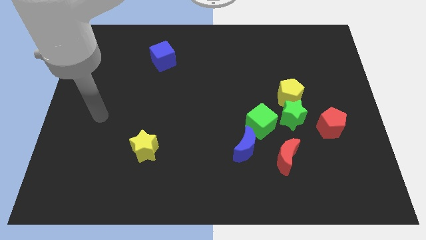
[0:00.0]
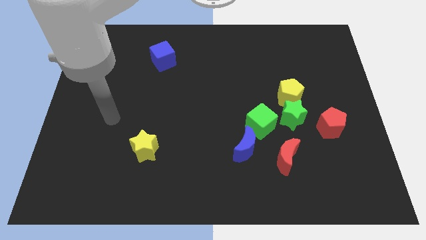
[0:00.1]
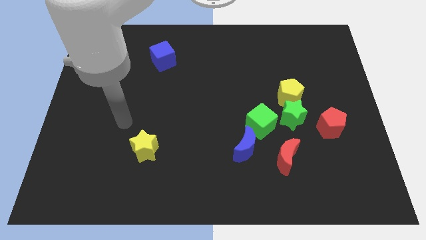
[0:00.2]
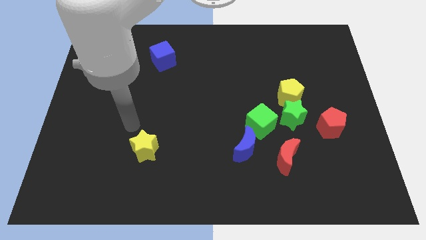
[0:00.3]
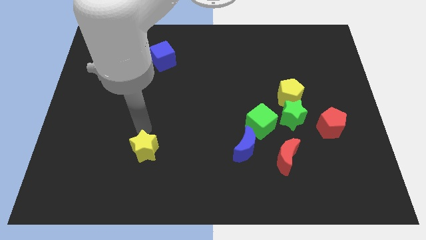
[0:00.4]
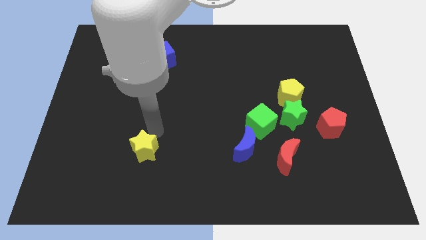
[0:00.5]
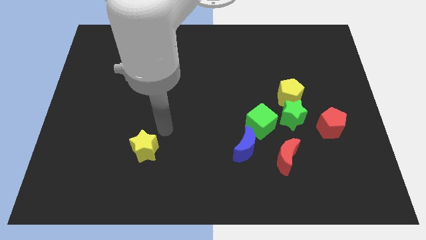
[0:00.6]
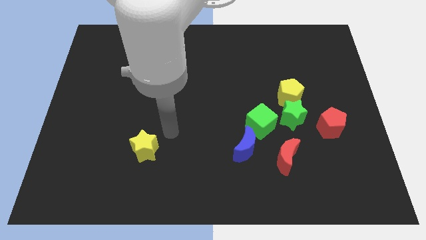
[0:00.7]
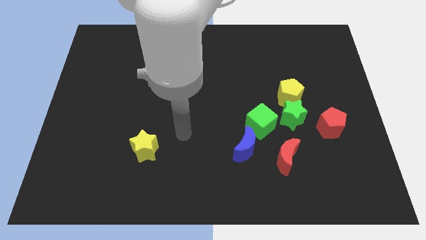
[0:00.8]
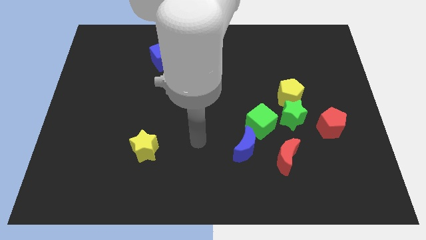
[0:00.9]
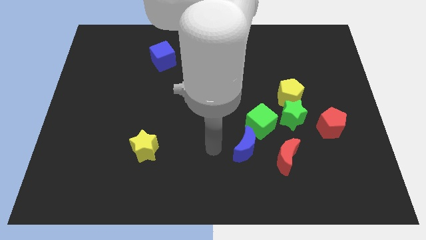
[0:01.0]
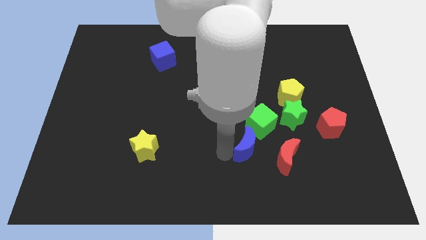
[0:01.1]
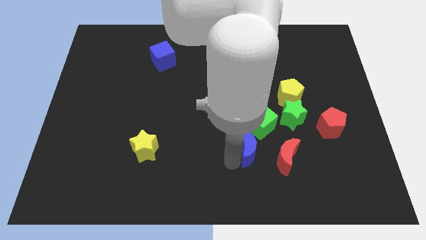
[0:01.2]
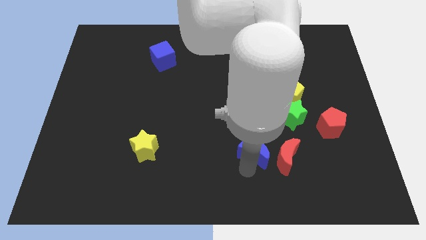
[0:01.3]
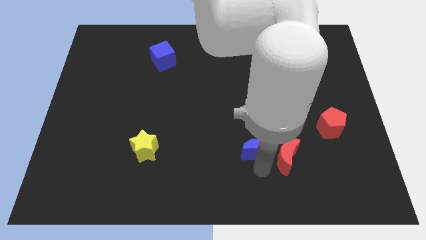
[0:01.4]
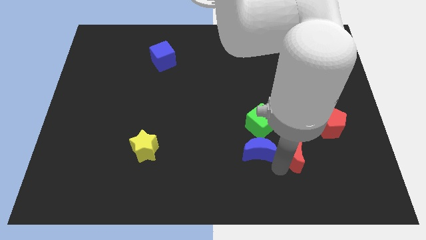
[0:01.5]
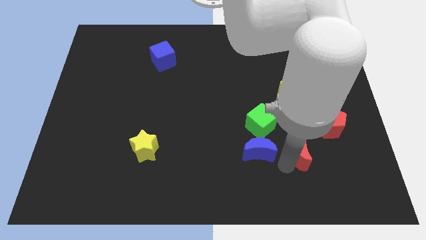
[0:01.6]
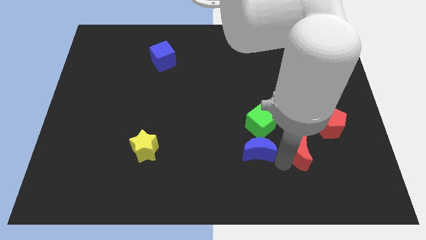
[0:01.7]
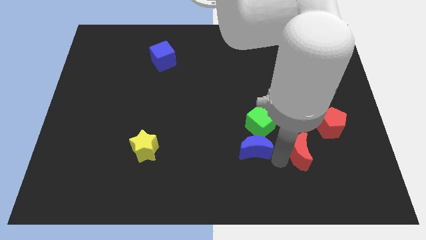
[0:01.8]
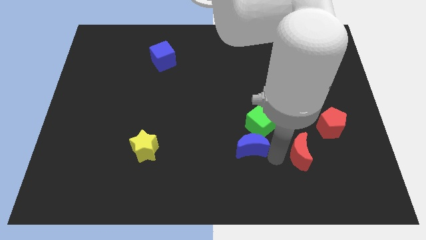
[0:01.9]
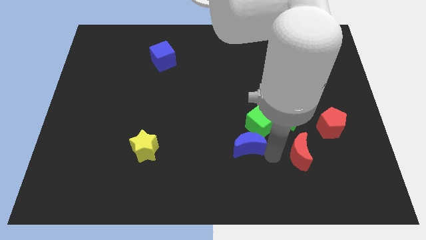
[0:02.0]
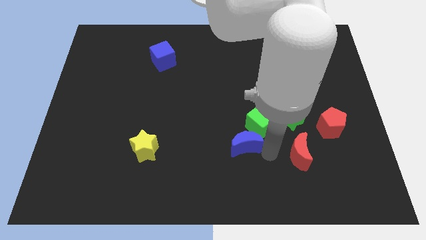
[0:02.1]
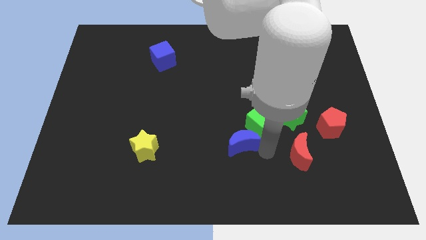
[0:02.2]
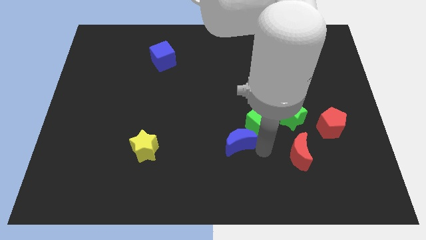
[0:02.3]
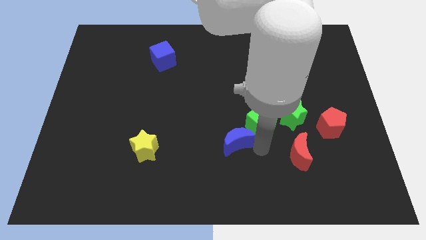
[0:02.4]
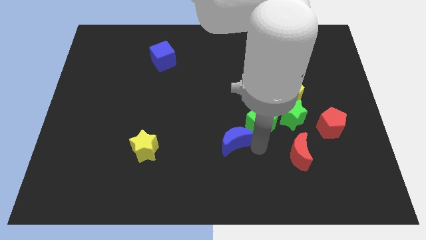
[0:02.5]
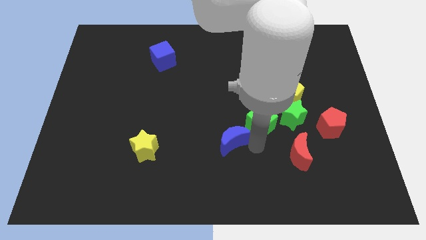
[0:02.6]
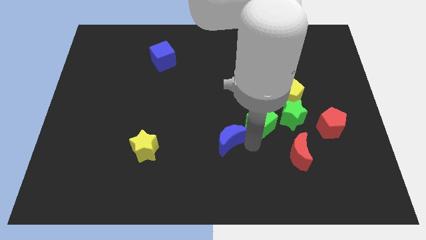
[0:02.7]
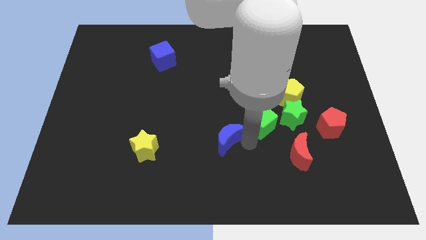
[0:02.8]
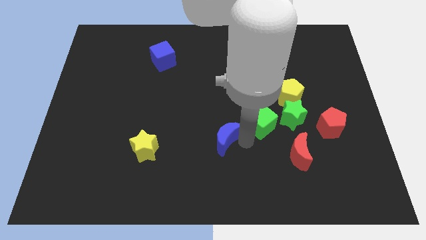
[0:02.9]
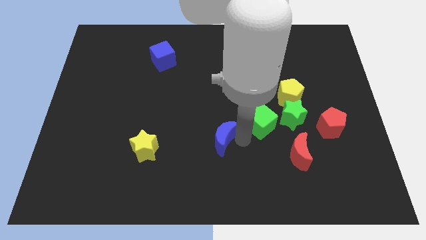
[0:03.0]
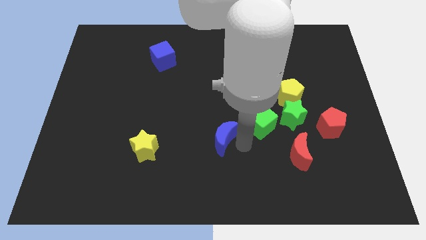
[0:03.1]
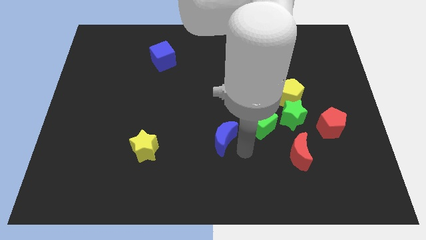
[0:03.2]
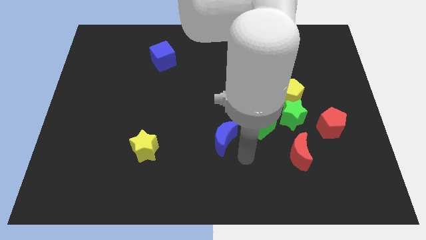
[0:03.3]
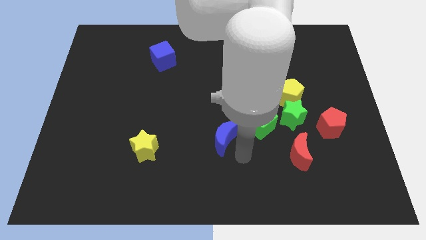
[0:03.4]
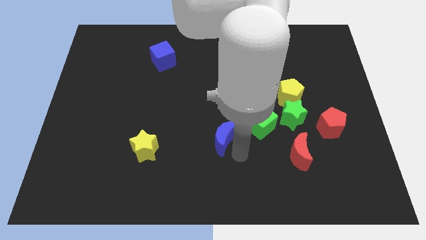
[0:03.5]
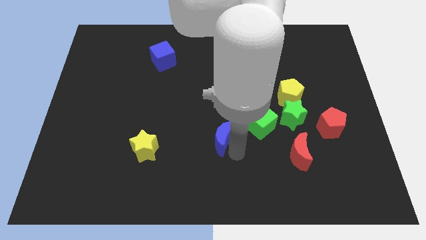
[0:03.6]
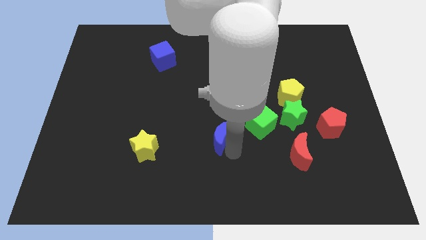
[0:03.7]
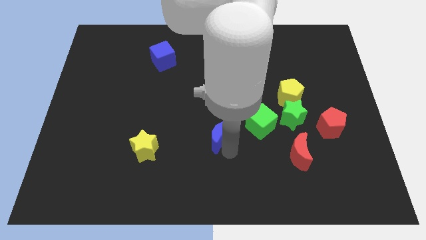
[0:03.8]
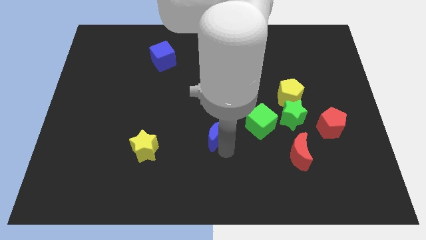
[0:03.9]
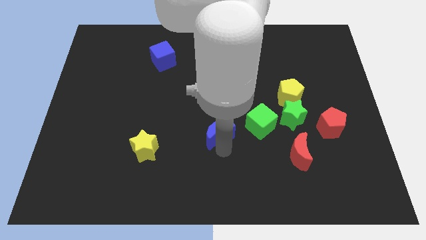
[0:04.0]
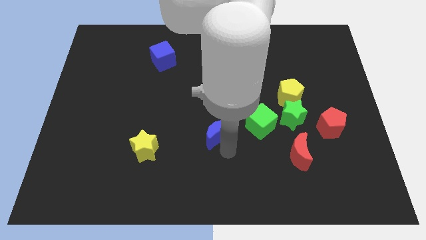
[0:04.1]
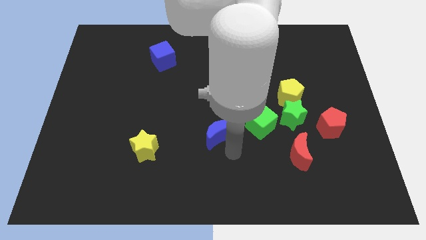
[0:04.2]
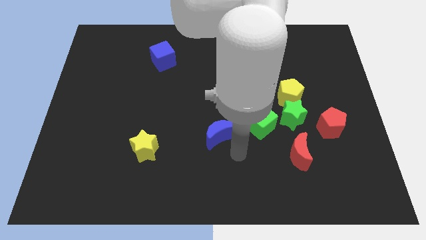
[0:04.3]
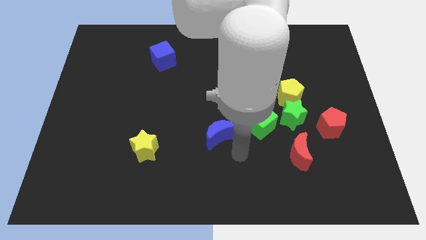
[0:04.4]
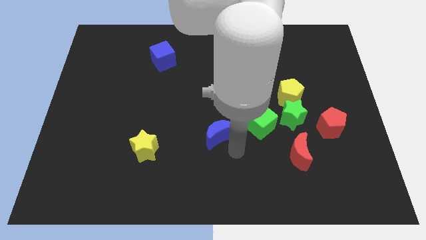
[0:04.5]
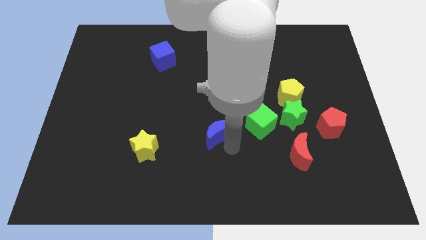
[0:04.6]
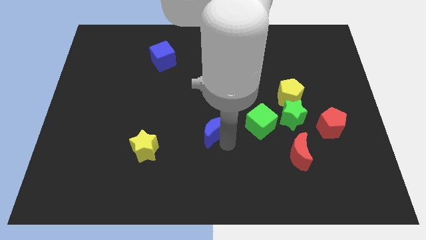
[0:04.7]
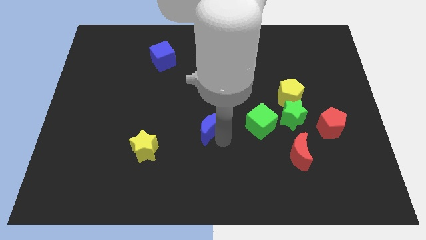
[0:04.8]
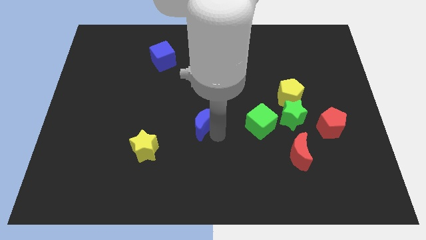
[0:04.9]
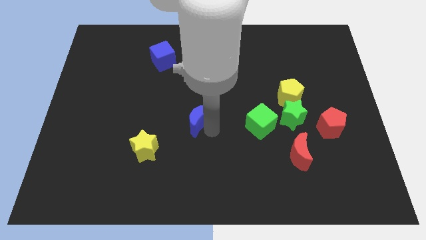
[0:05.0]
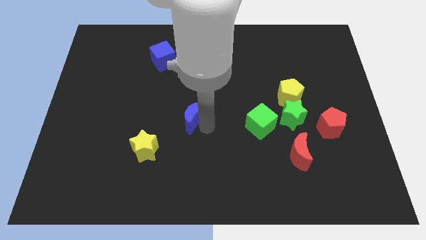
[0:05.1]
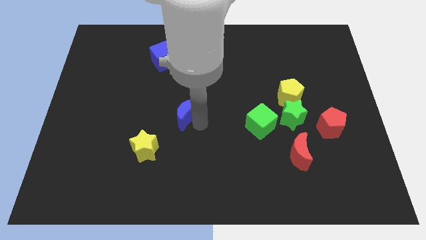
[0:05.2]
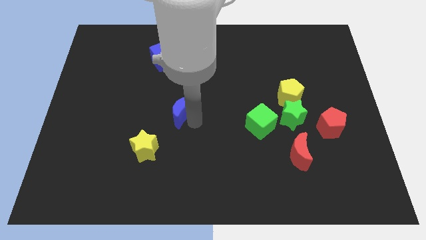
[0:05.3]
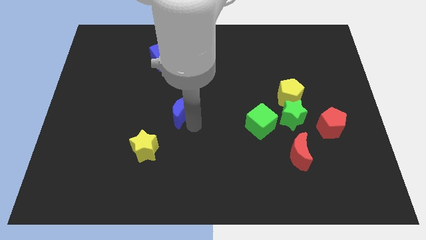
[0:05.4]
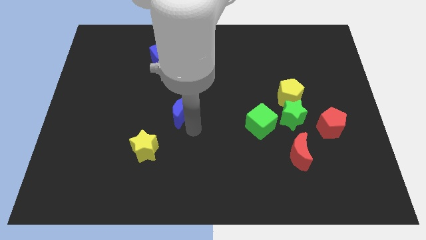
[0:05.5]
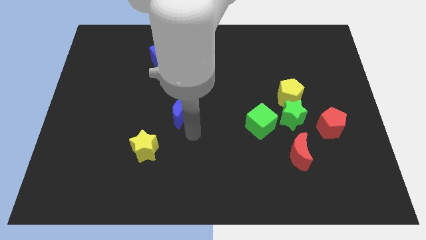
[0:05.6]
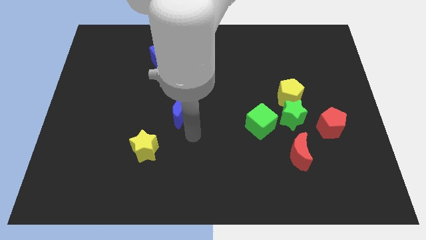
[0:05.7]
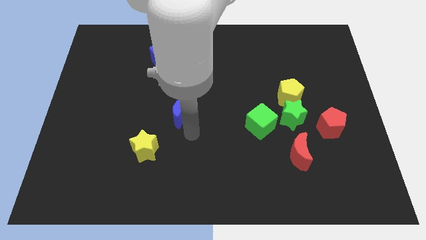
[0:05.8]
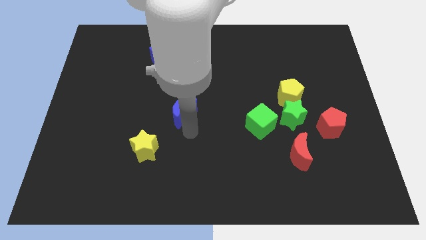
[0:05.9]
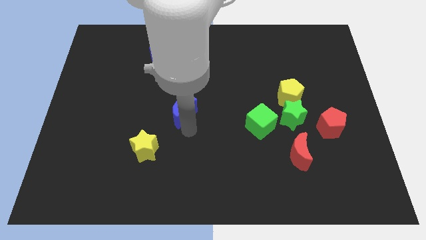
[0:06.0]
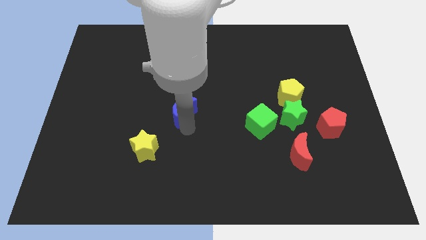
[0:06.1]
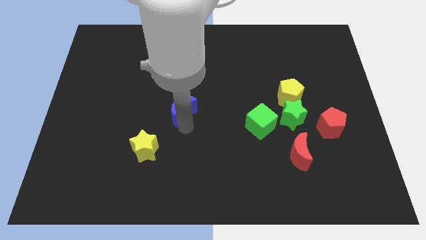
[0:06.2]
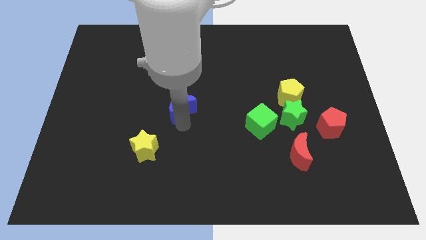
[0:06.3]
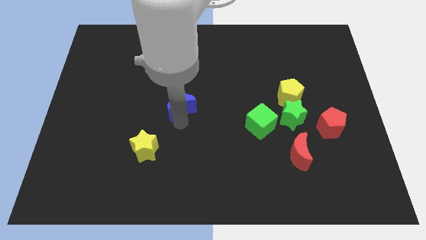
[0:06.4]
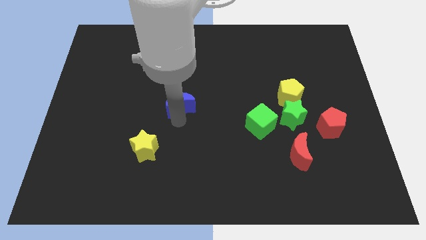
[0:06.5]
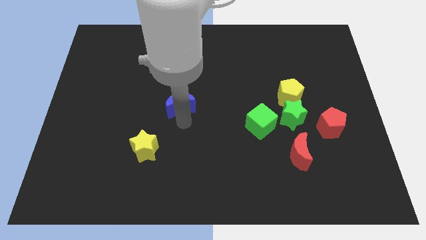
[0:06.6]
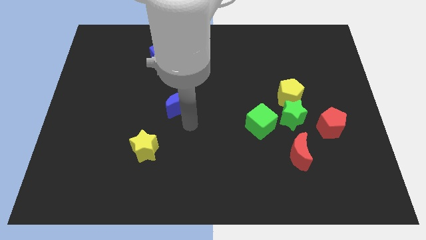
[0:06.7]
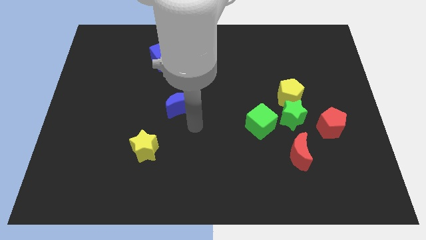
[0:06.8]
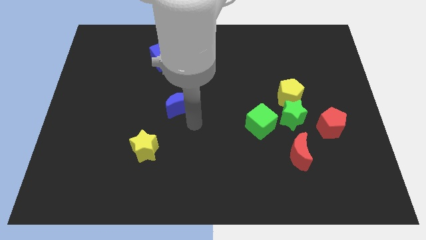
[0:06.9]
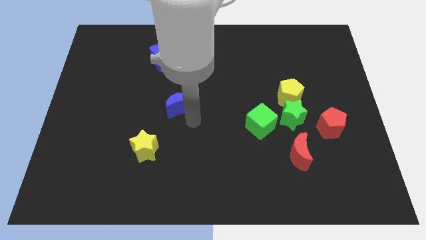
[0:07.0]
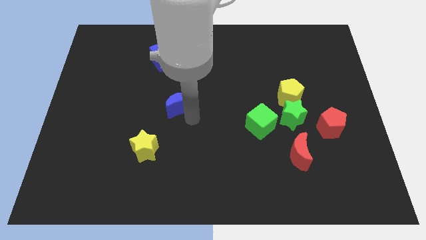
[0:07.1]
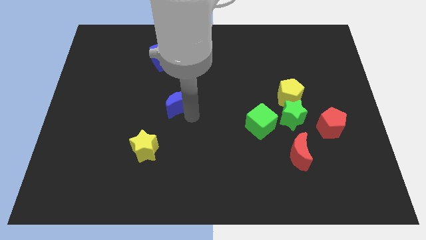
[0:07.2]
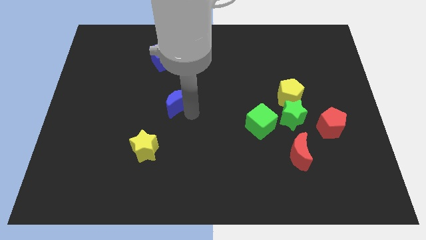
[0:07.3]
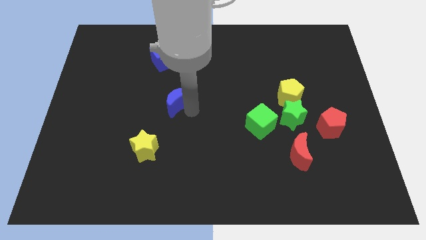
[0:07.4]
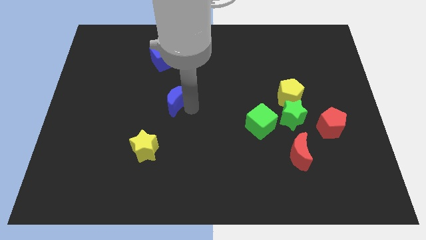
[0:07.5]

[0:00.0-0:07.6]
slide the blue moon diagonally upwards and left

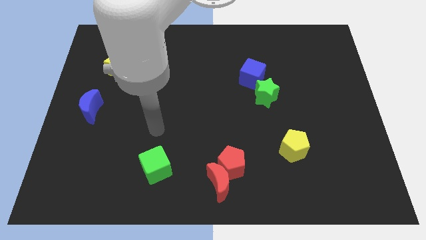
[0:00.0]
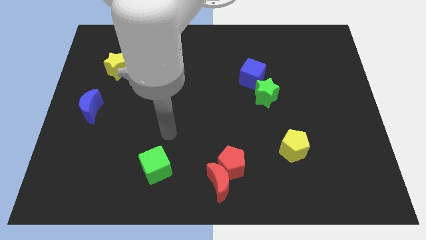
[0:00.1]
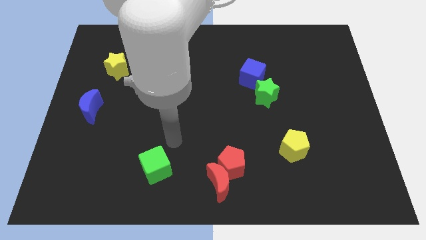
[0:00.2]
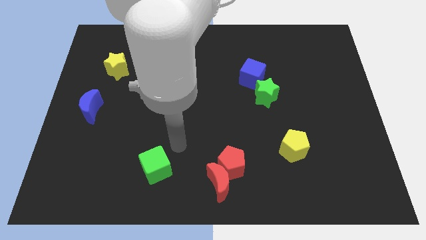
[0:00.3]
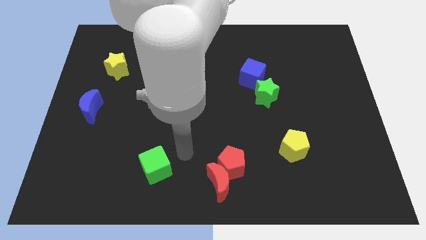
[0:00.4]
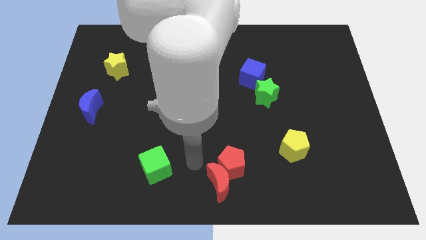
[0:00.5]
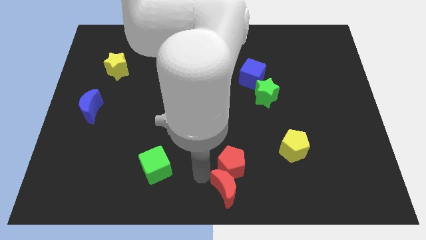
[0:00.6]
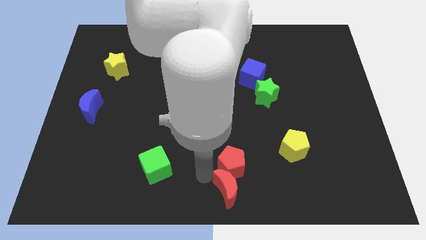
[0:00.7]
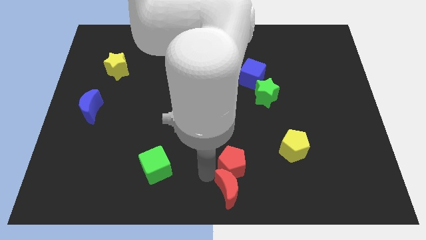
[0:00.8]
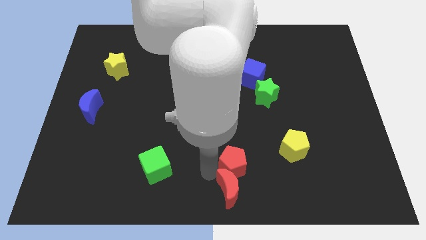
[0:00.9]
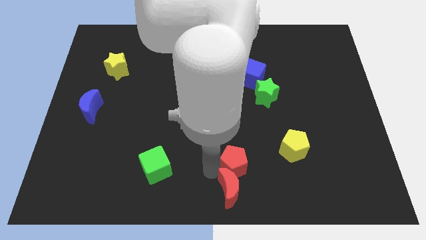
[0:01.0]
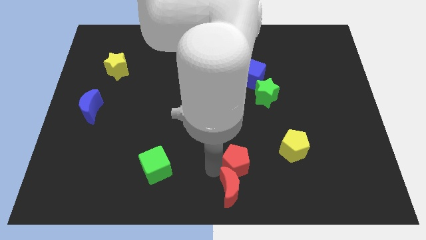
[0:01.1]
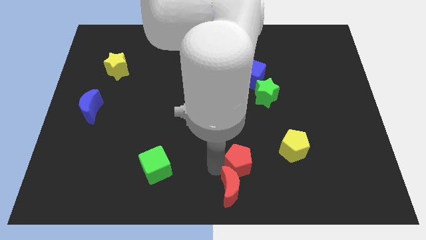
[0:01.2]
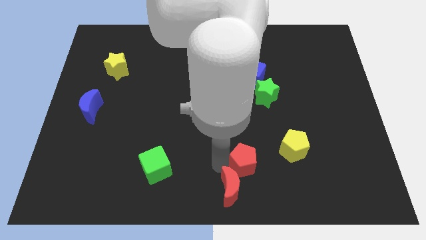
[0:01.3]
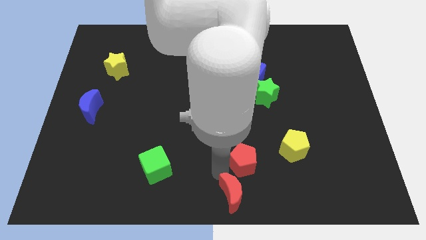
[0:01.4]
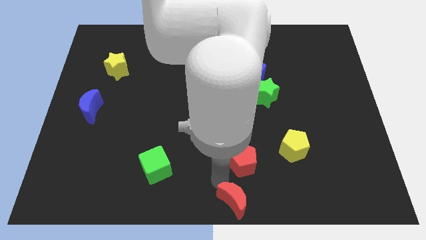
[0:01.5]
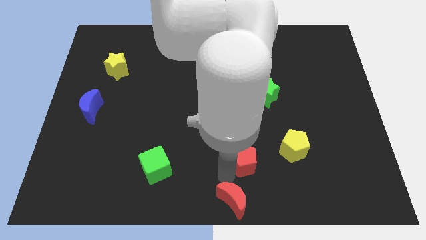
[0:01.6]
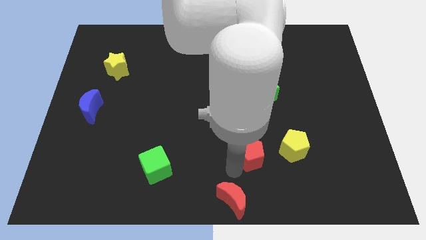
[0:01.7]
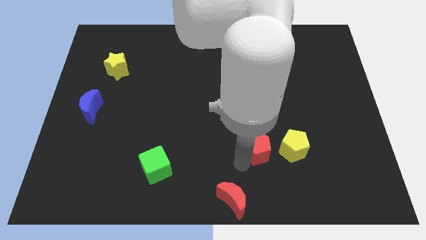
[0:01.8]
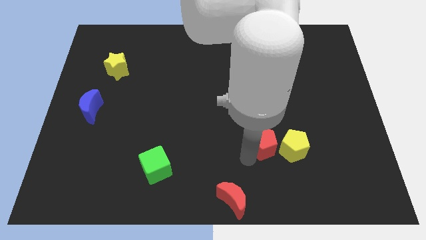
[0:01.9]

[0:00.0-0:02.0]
slide the red pentagon up and right diagonally a little
